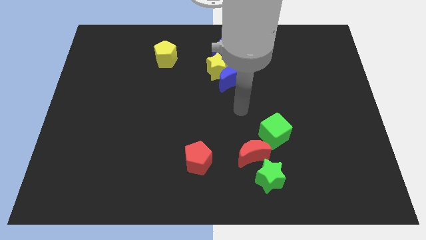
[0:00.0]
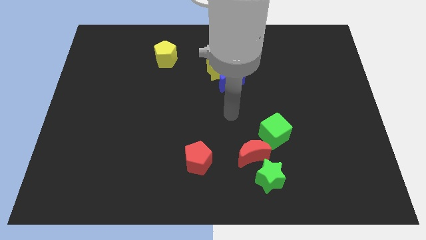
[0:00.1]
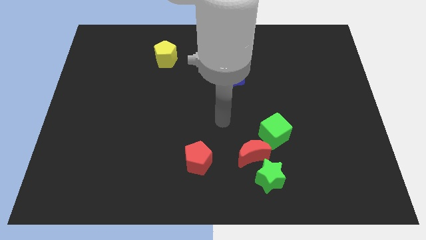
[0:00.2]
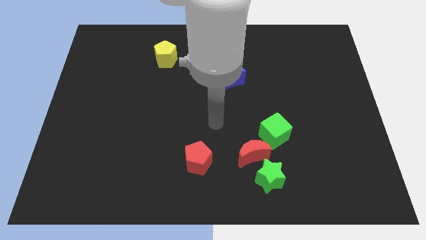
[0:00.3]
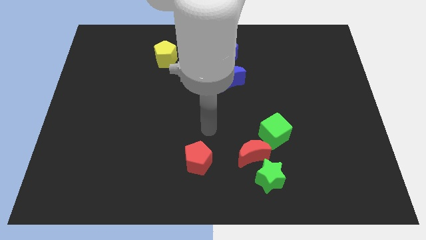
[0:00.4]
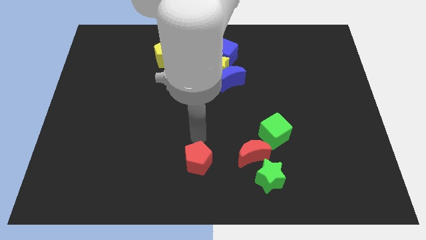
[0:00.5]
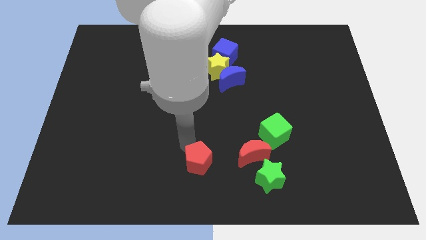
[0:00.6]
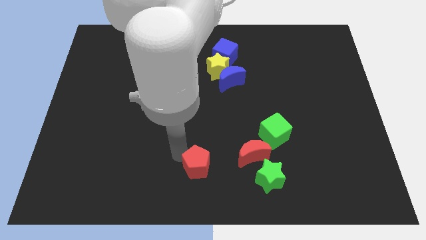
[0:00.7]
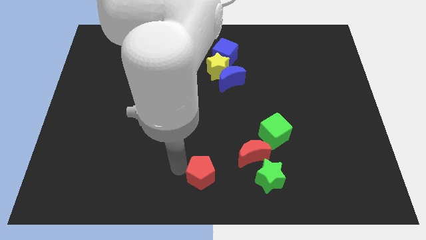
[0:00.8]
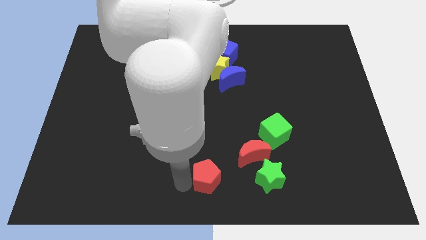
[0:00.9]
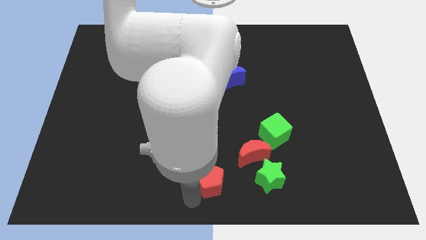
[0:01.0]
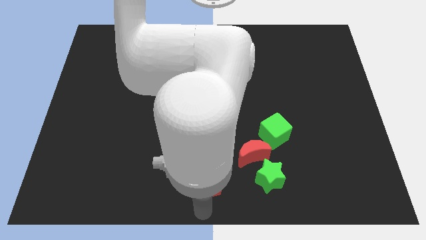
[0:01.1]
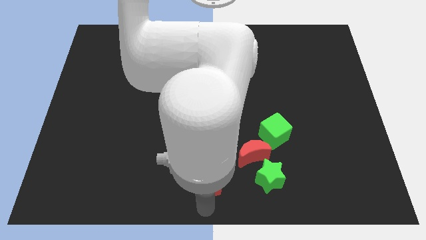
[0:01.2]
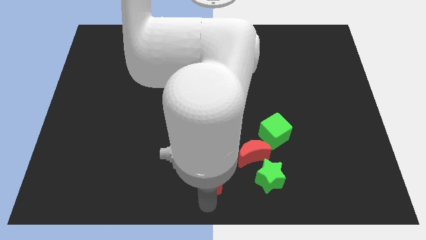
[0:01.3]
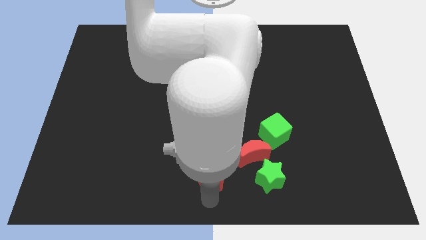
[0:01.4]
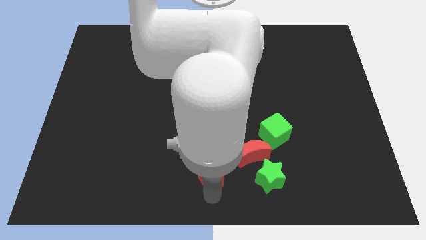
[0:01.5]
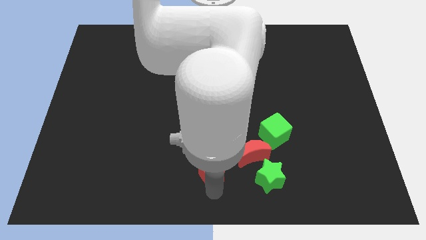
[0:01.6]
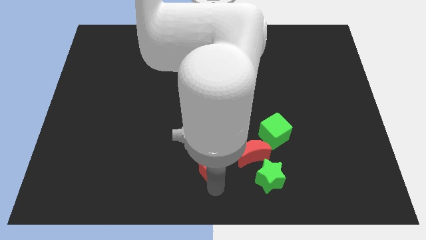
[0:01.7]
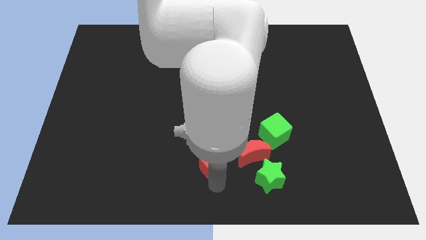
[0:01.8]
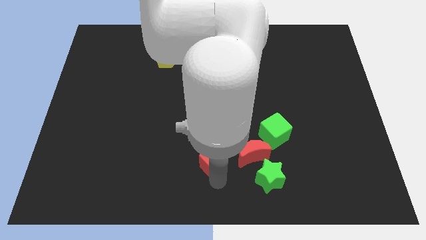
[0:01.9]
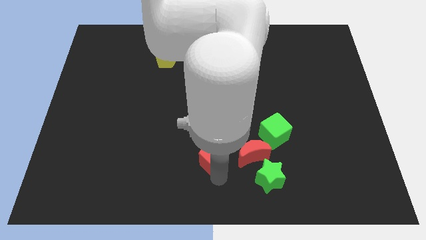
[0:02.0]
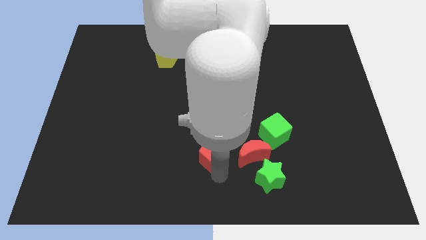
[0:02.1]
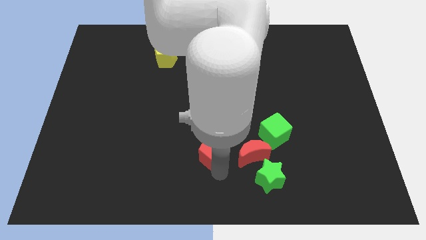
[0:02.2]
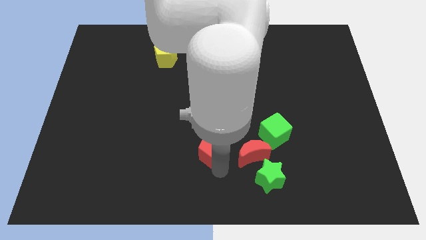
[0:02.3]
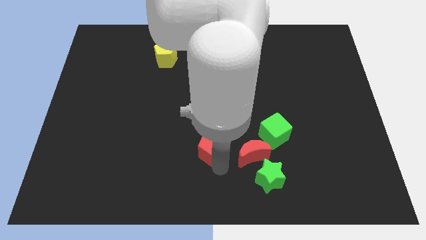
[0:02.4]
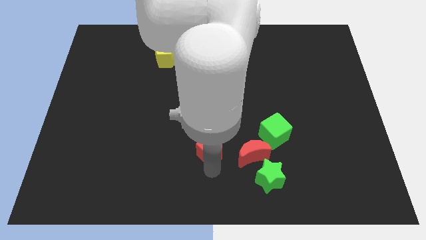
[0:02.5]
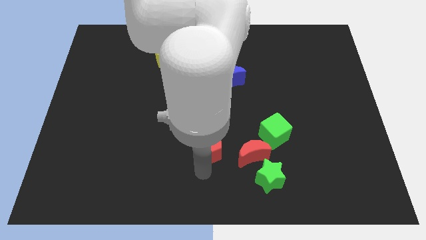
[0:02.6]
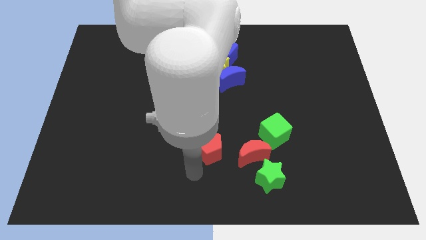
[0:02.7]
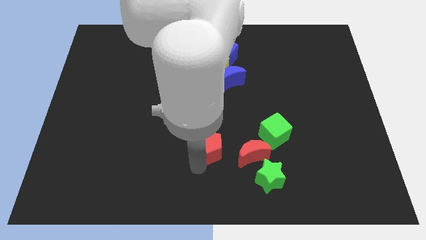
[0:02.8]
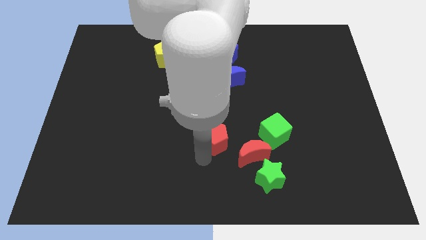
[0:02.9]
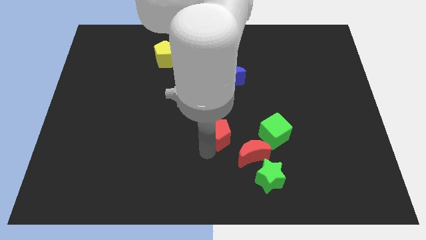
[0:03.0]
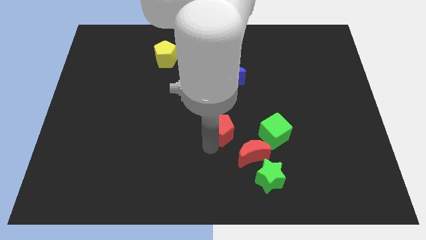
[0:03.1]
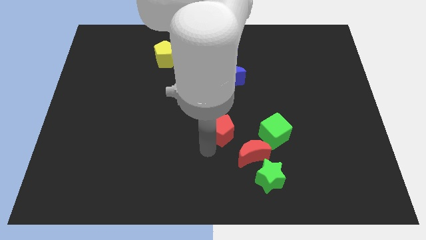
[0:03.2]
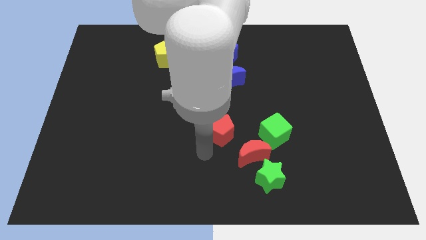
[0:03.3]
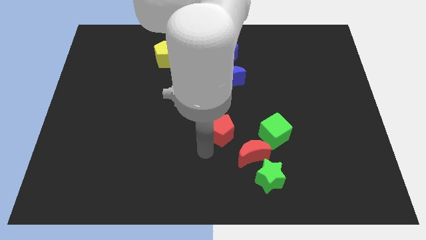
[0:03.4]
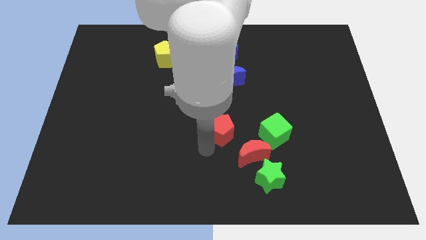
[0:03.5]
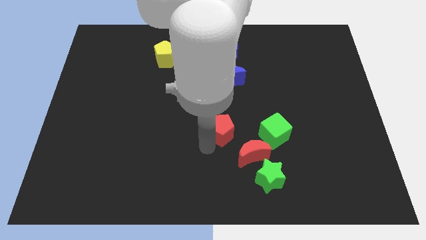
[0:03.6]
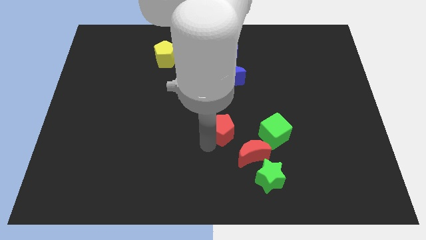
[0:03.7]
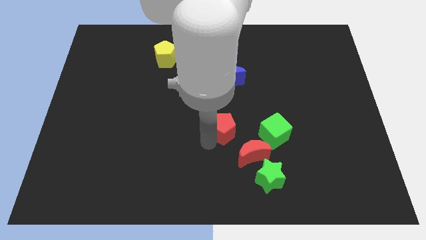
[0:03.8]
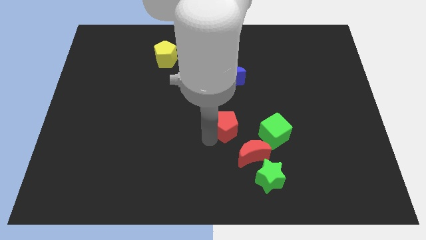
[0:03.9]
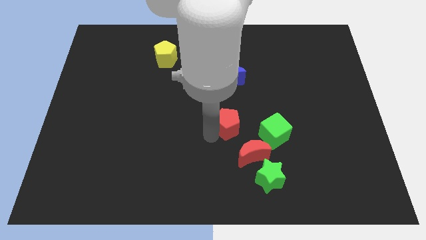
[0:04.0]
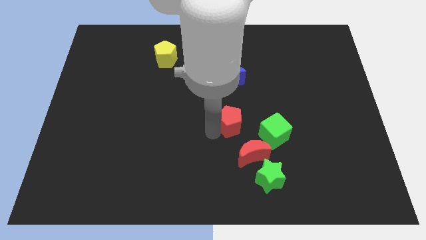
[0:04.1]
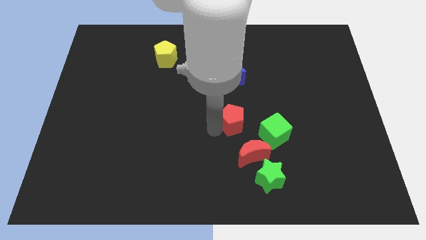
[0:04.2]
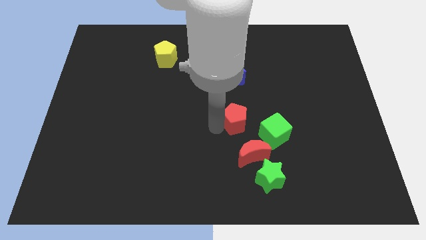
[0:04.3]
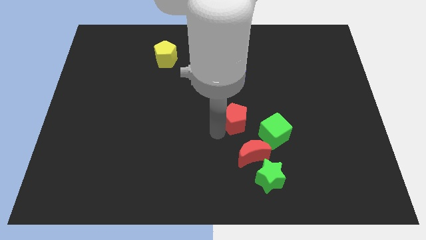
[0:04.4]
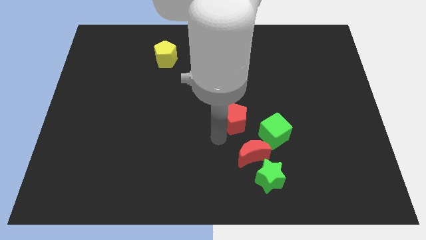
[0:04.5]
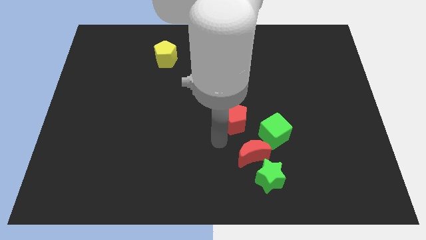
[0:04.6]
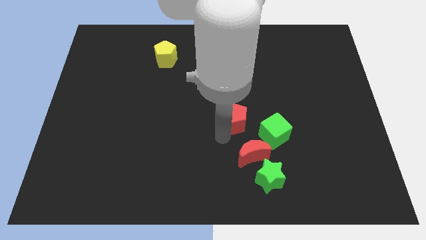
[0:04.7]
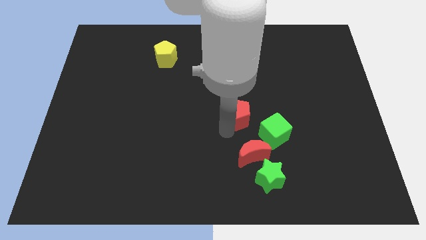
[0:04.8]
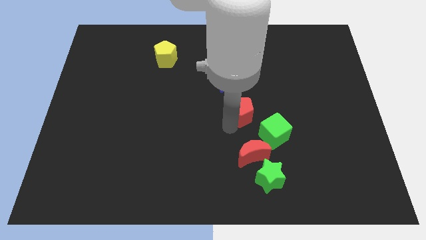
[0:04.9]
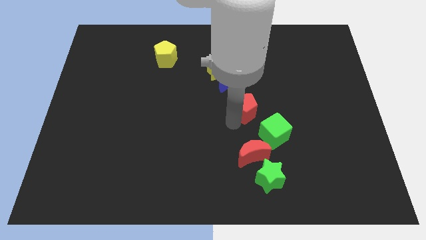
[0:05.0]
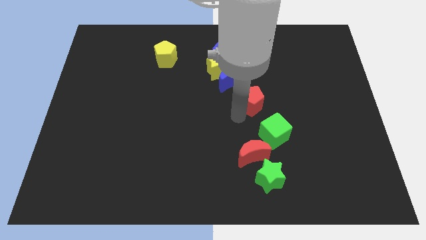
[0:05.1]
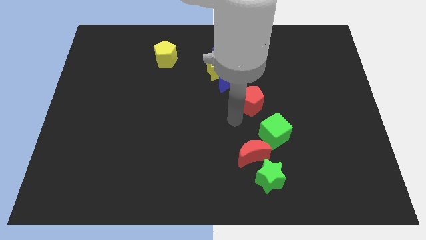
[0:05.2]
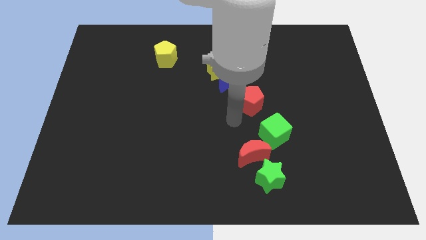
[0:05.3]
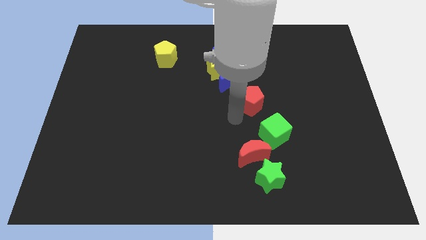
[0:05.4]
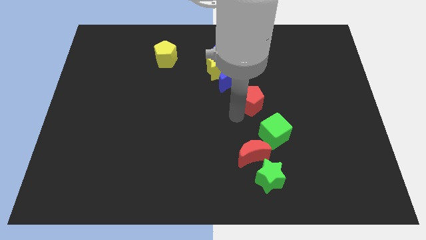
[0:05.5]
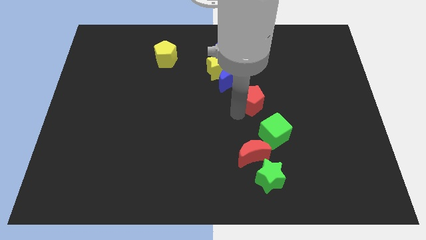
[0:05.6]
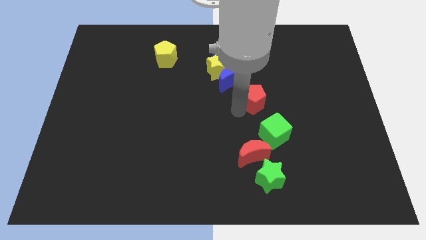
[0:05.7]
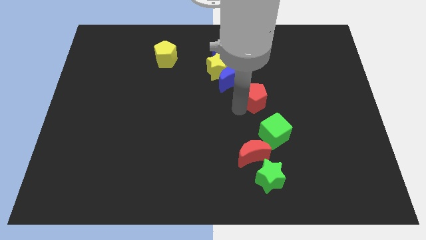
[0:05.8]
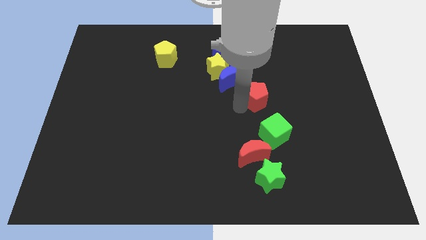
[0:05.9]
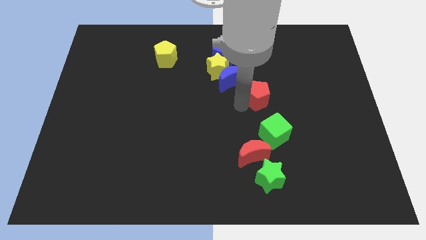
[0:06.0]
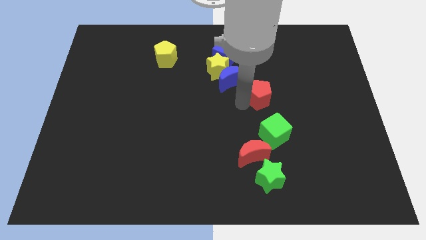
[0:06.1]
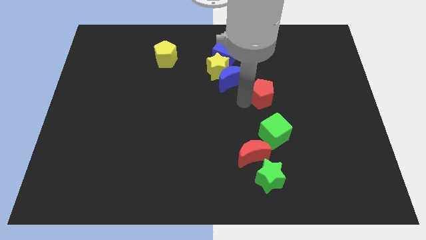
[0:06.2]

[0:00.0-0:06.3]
put the red pentagon right of the blue moon

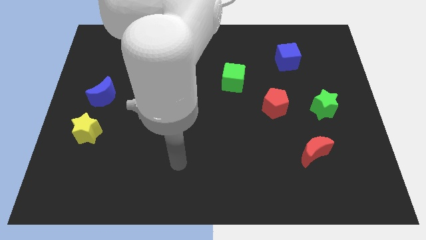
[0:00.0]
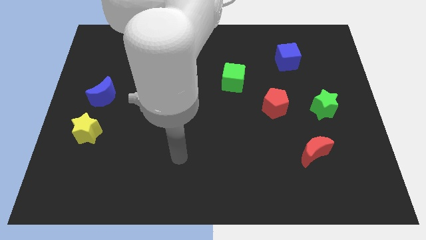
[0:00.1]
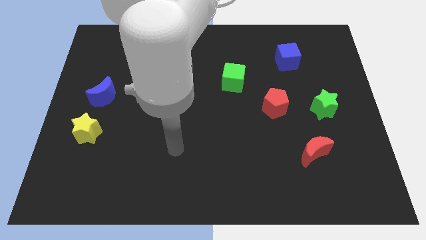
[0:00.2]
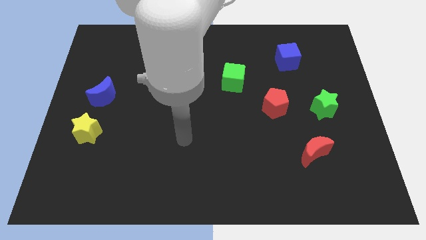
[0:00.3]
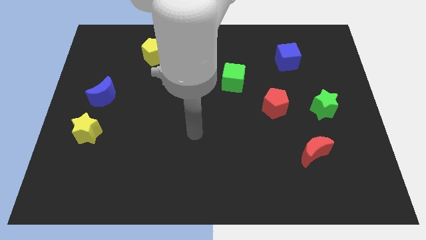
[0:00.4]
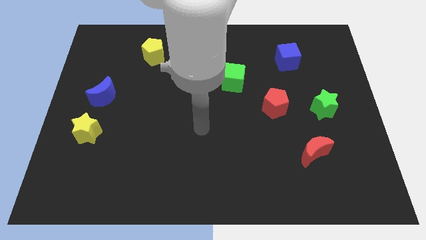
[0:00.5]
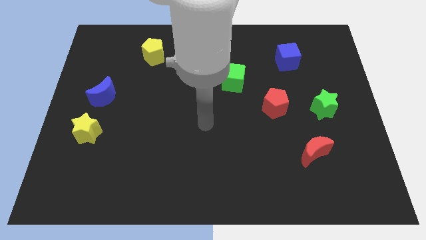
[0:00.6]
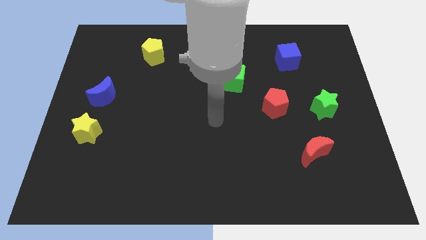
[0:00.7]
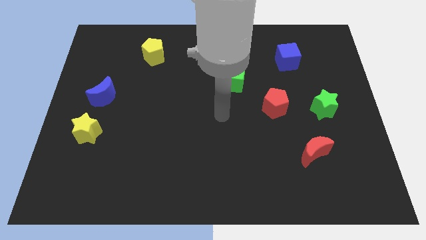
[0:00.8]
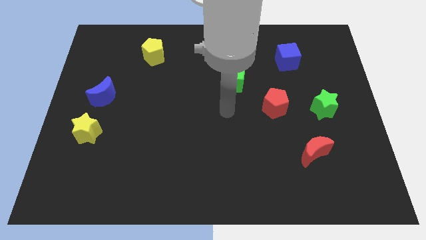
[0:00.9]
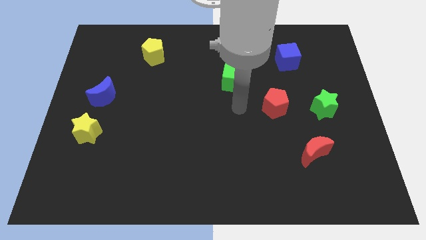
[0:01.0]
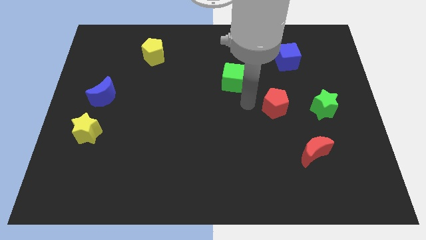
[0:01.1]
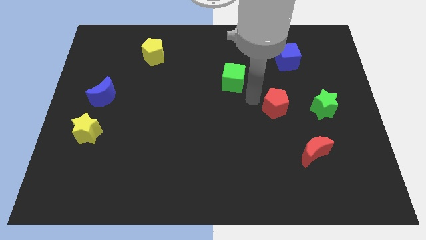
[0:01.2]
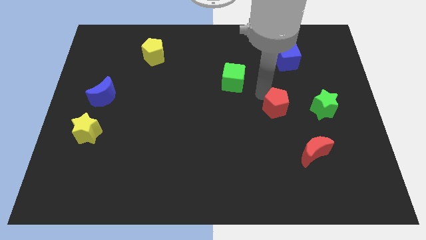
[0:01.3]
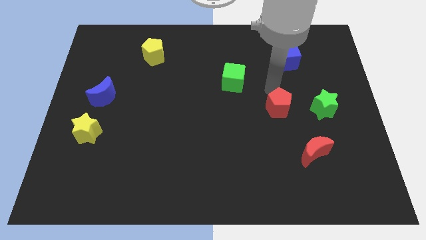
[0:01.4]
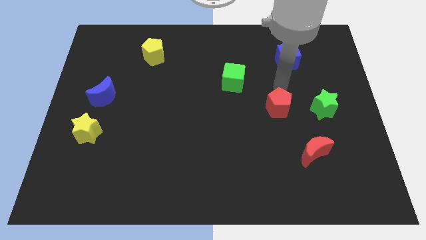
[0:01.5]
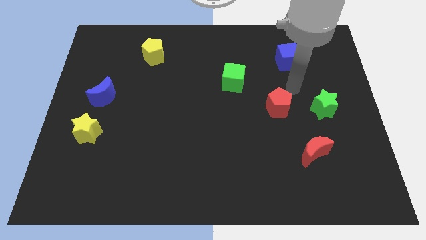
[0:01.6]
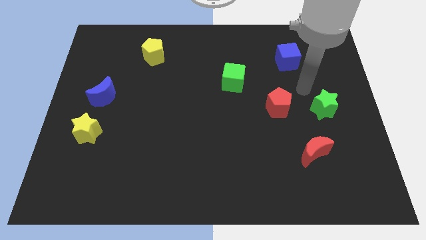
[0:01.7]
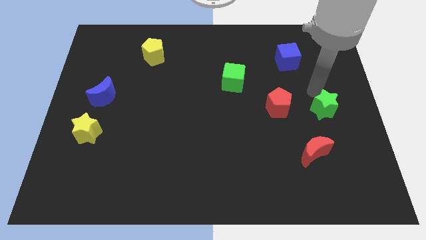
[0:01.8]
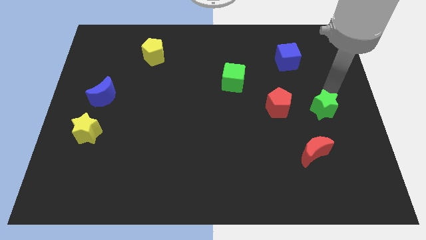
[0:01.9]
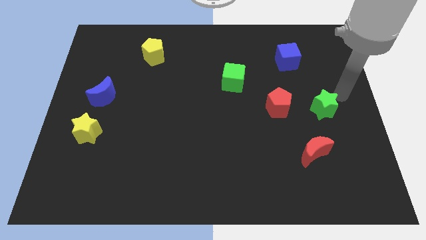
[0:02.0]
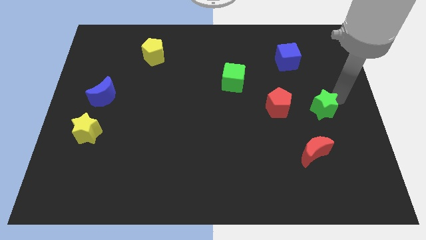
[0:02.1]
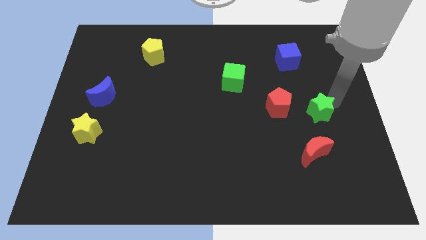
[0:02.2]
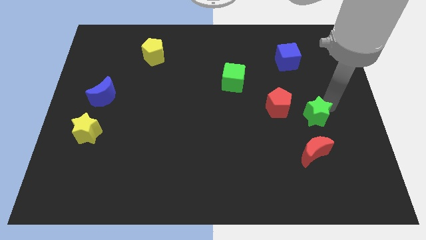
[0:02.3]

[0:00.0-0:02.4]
move the green star to the bottom right of the red pentagon
